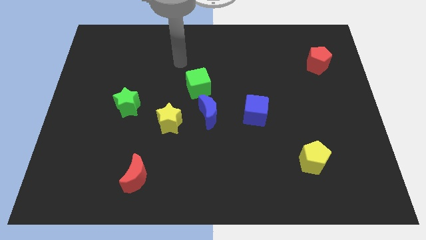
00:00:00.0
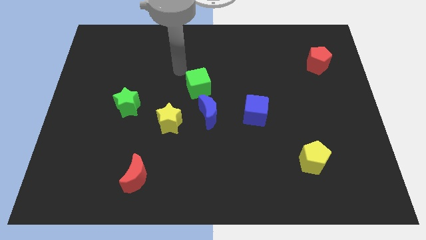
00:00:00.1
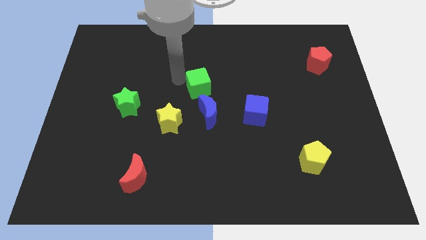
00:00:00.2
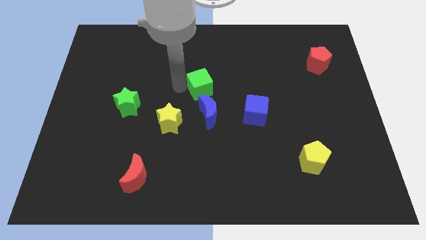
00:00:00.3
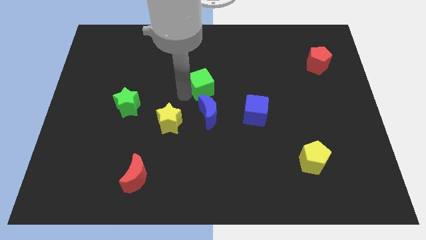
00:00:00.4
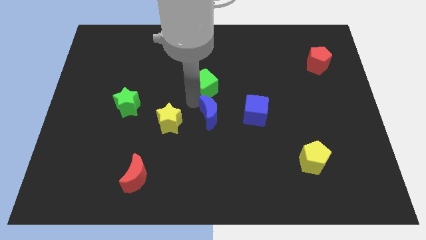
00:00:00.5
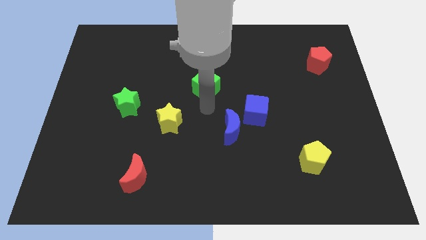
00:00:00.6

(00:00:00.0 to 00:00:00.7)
separate the green cube from the blue moon

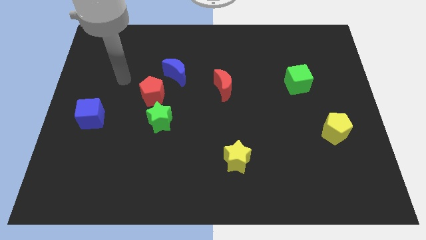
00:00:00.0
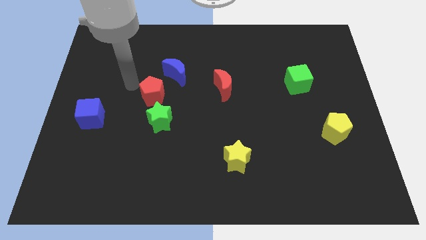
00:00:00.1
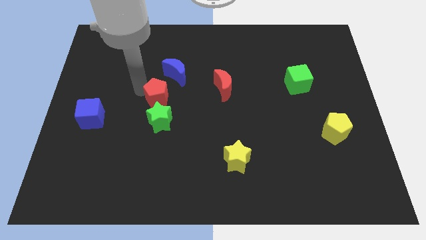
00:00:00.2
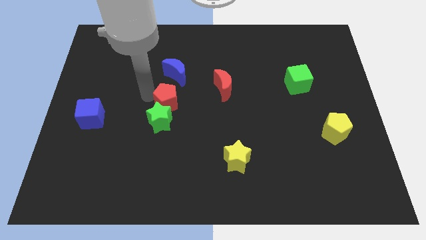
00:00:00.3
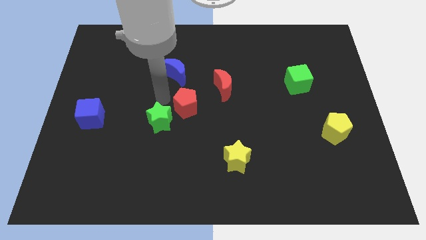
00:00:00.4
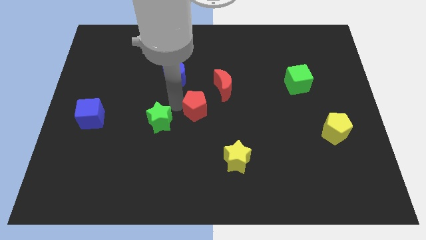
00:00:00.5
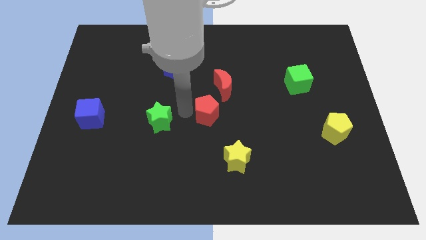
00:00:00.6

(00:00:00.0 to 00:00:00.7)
separate the green star from the red pentagon

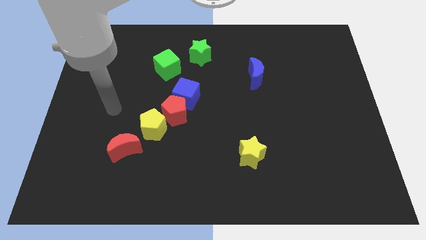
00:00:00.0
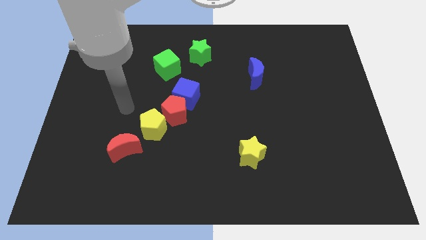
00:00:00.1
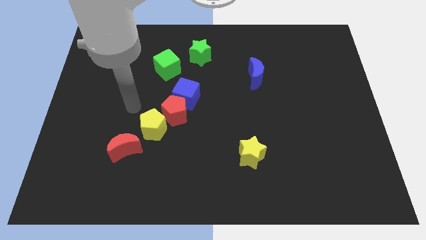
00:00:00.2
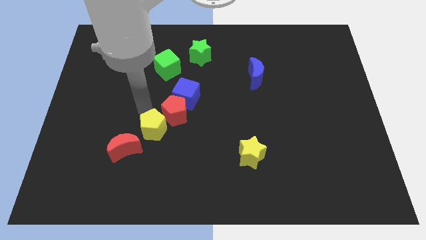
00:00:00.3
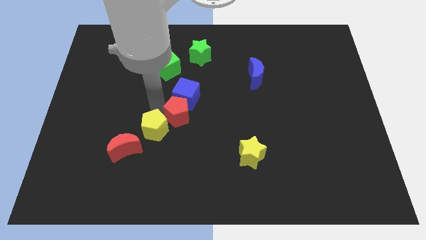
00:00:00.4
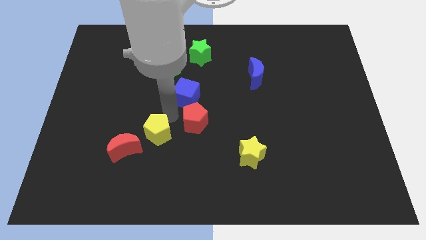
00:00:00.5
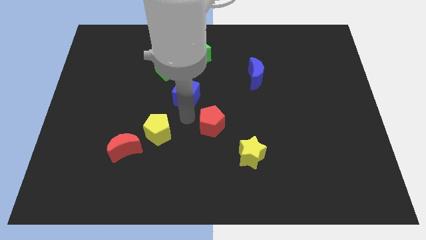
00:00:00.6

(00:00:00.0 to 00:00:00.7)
move the blue cube away from the red pentagon

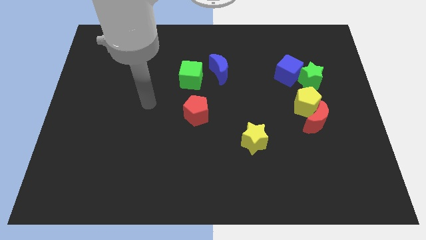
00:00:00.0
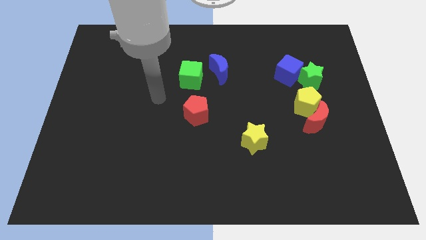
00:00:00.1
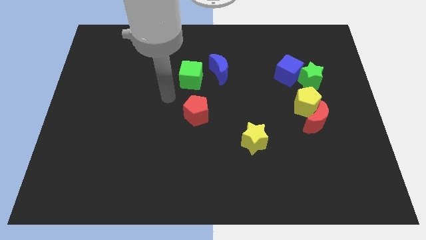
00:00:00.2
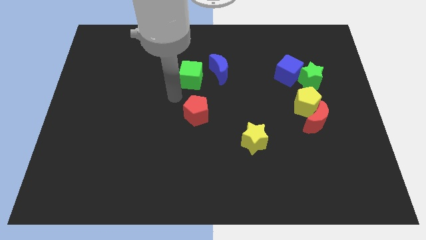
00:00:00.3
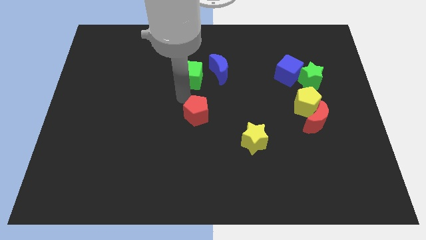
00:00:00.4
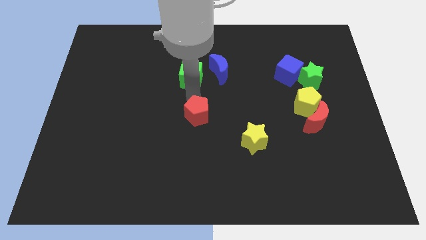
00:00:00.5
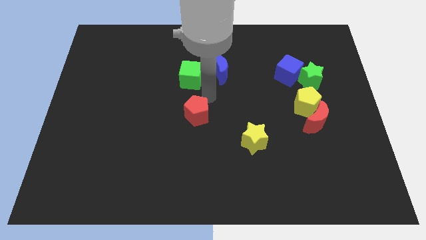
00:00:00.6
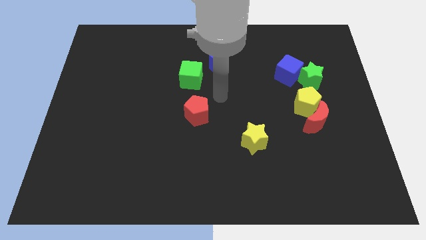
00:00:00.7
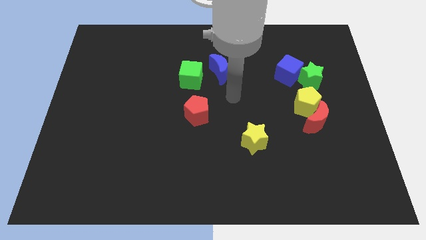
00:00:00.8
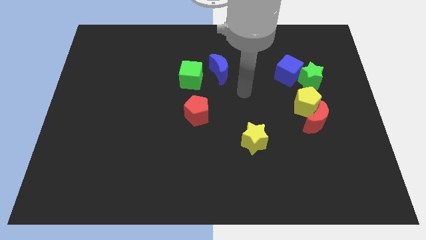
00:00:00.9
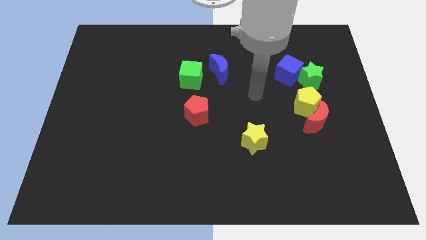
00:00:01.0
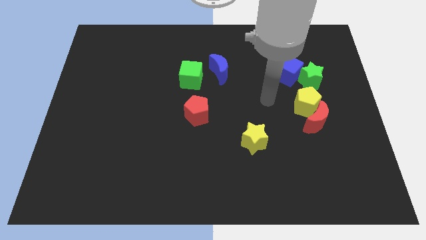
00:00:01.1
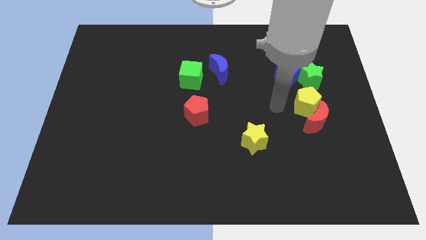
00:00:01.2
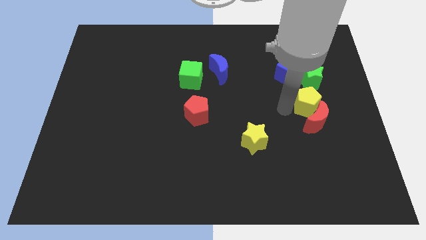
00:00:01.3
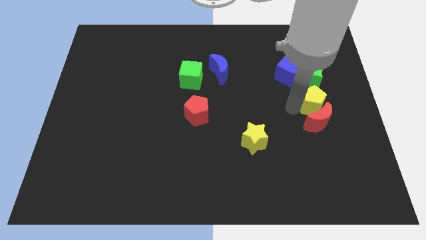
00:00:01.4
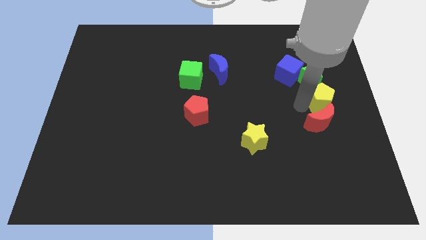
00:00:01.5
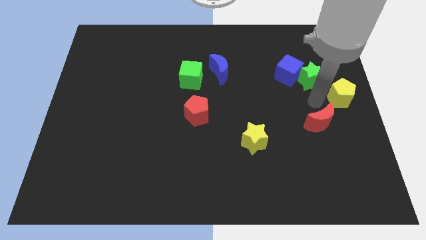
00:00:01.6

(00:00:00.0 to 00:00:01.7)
separate the red moon from the yellow pentagon

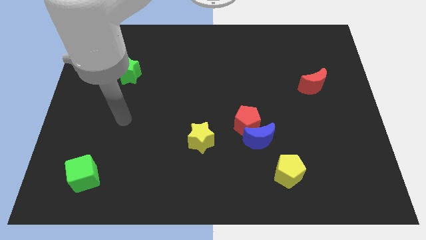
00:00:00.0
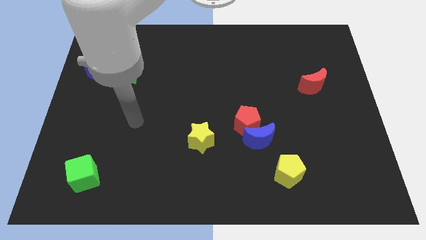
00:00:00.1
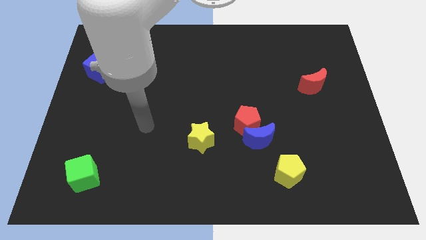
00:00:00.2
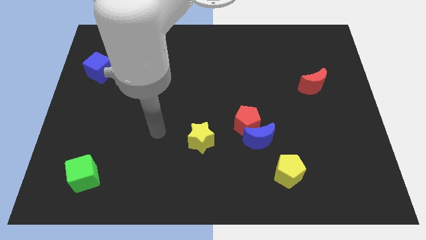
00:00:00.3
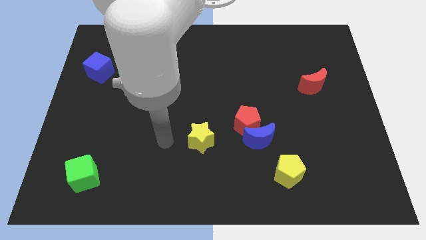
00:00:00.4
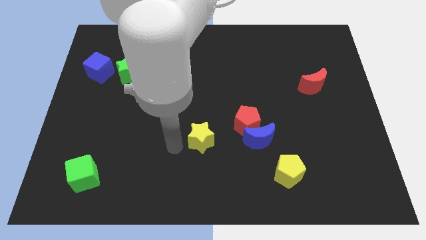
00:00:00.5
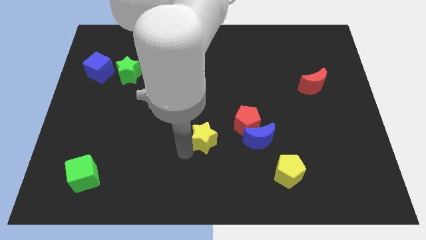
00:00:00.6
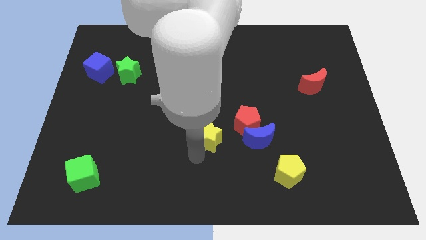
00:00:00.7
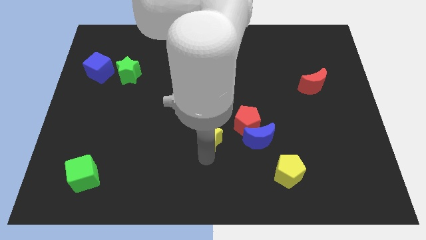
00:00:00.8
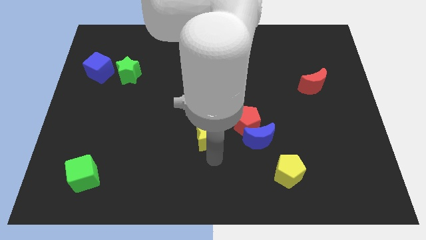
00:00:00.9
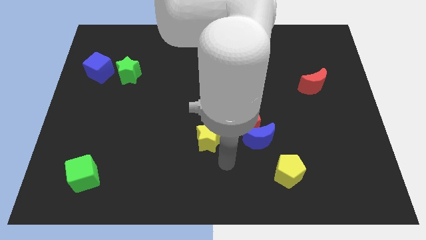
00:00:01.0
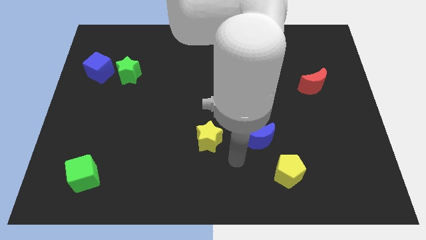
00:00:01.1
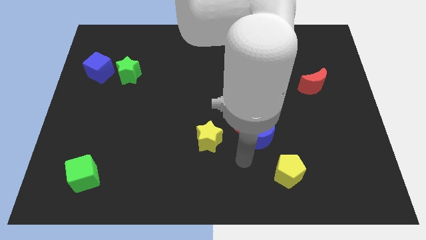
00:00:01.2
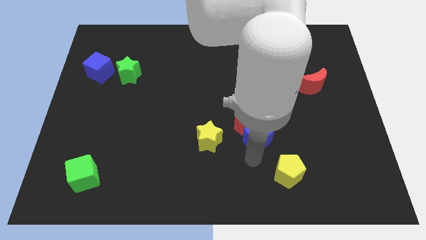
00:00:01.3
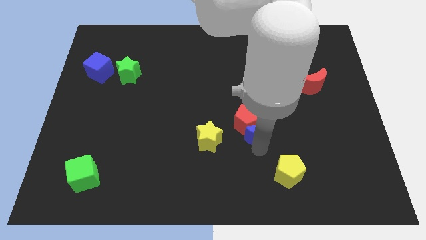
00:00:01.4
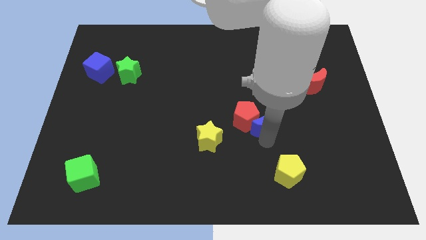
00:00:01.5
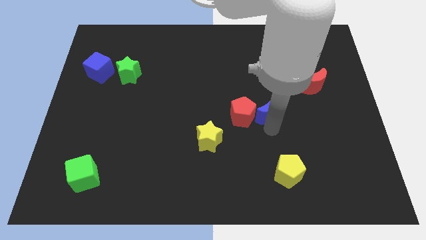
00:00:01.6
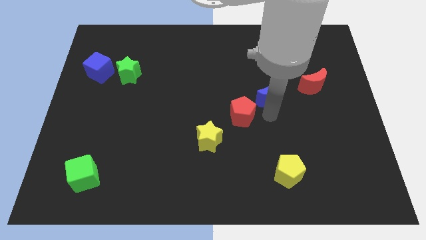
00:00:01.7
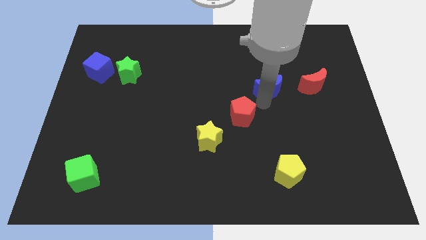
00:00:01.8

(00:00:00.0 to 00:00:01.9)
move the red pentagon away from the blue moon

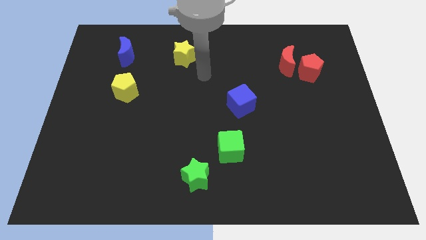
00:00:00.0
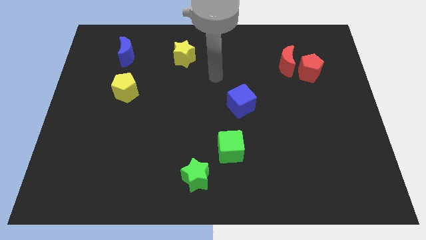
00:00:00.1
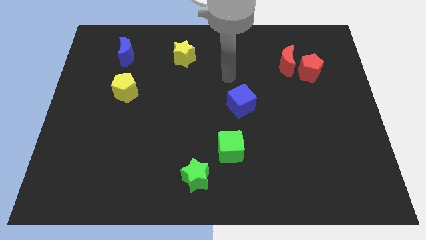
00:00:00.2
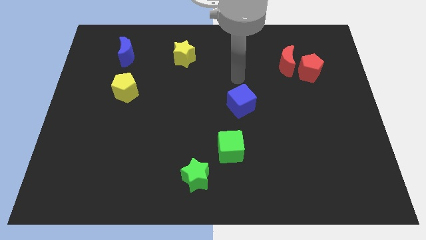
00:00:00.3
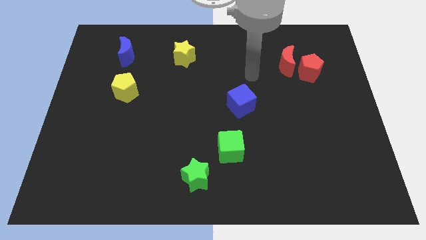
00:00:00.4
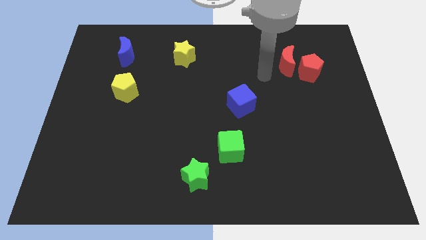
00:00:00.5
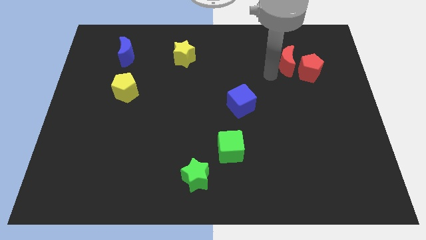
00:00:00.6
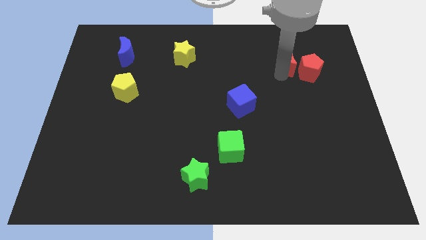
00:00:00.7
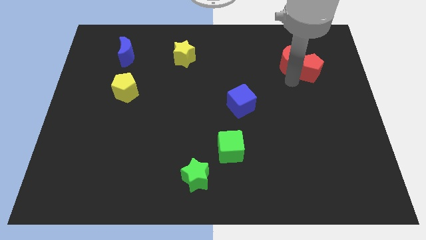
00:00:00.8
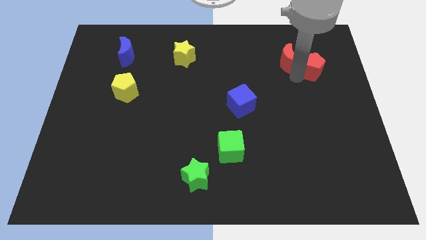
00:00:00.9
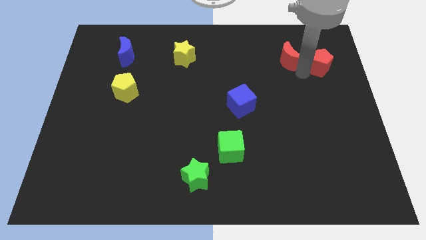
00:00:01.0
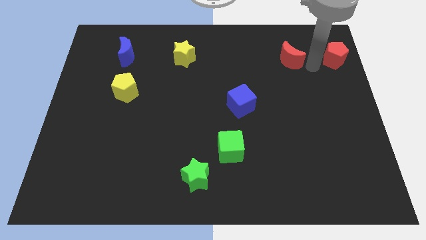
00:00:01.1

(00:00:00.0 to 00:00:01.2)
move the red moon away from the red pentagon

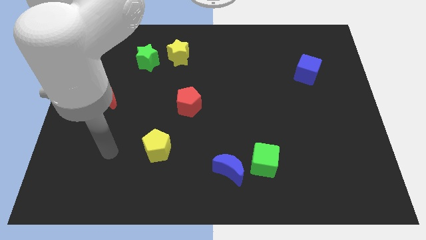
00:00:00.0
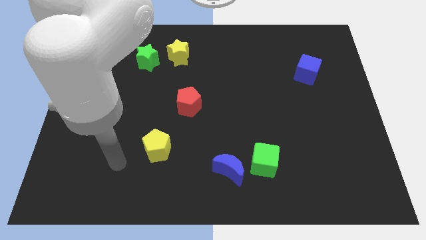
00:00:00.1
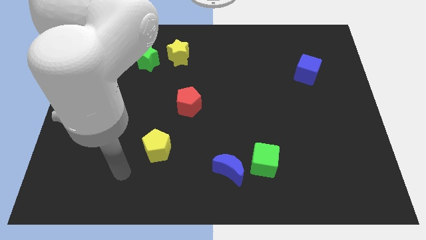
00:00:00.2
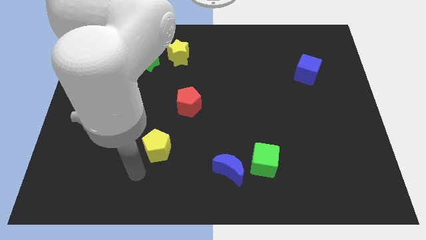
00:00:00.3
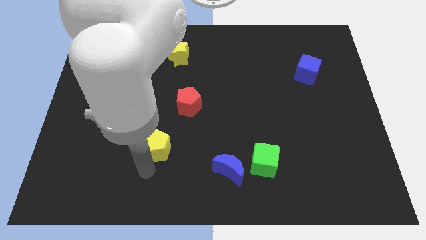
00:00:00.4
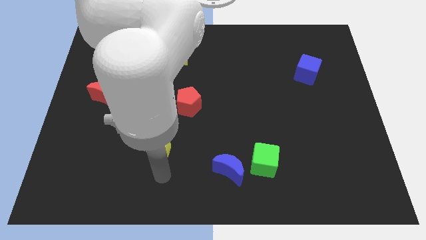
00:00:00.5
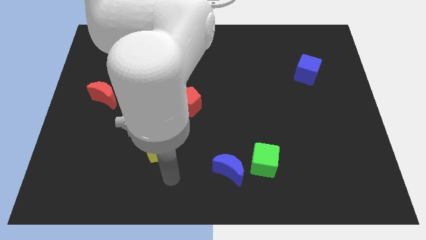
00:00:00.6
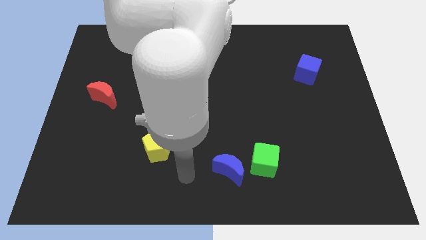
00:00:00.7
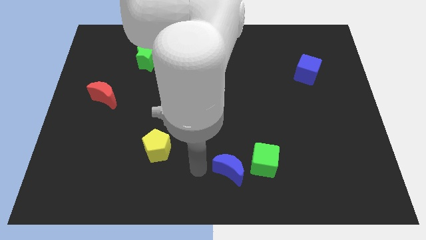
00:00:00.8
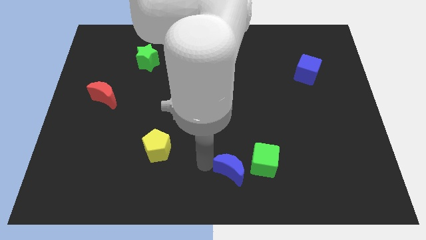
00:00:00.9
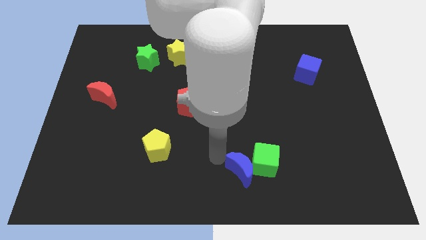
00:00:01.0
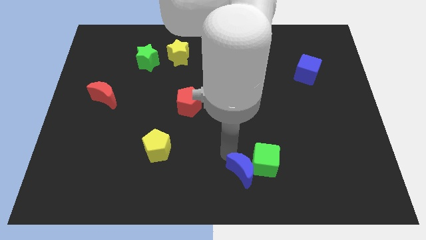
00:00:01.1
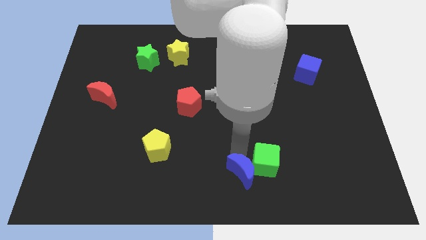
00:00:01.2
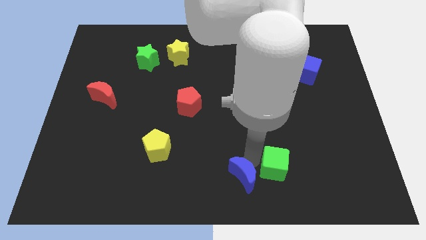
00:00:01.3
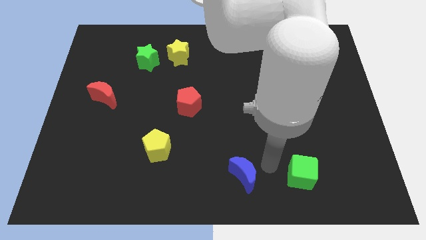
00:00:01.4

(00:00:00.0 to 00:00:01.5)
separate the blue moon from the green cube

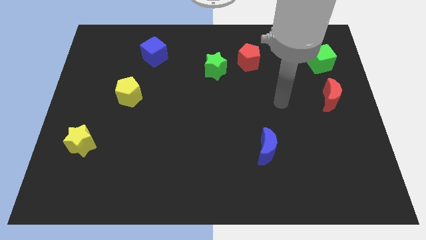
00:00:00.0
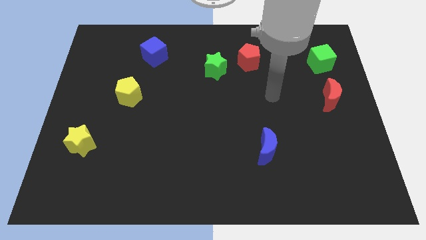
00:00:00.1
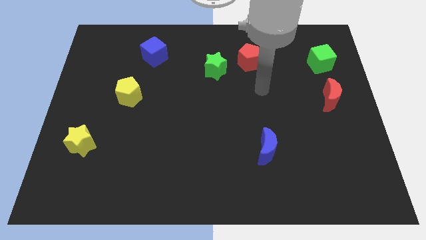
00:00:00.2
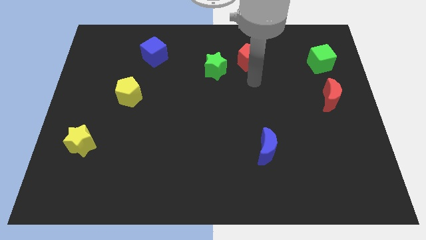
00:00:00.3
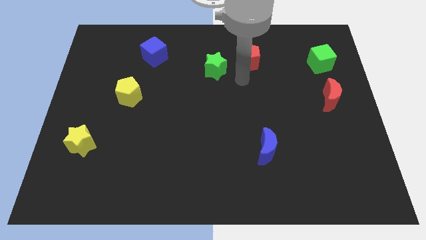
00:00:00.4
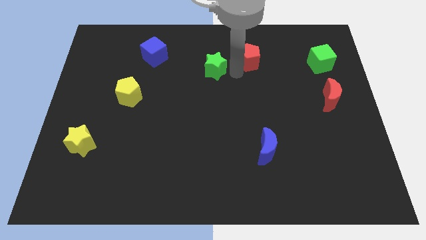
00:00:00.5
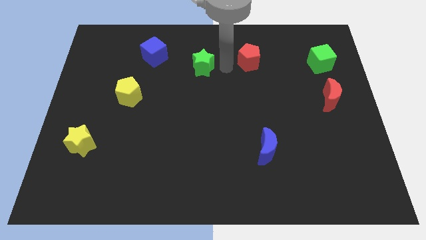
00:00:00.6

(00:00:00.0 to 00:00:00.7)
move the red pentagon away from the green star

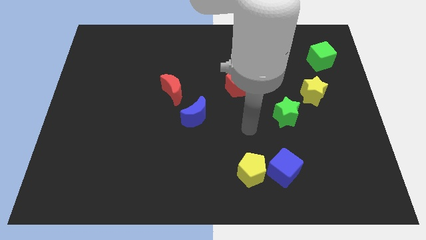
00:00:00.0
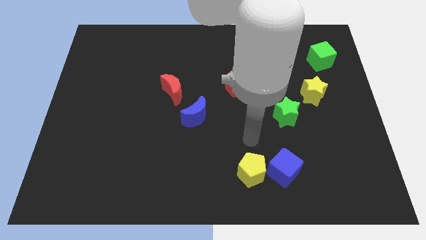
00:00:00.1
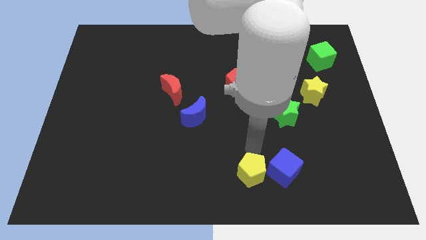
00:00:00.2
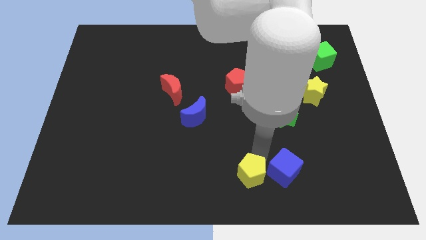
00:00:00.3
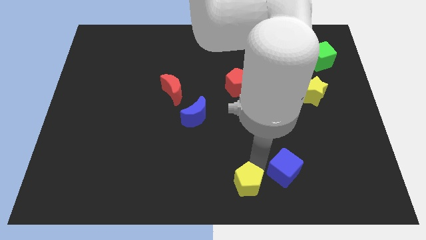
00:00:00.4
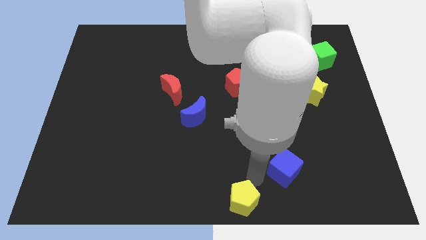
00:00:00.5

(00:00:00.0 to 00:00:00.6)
move the blue cube away from the yellow pentagon
